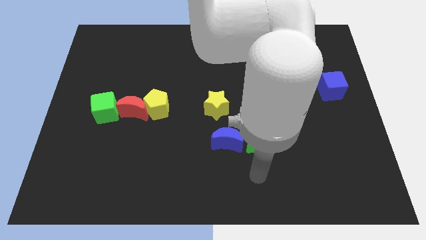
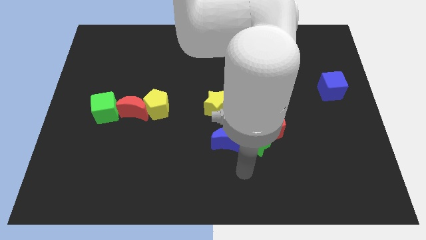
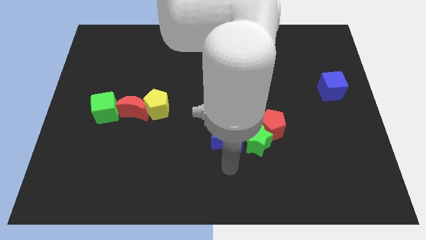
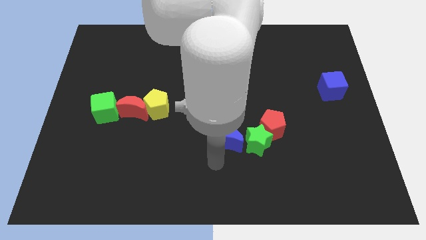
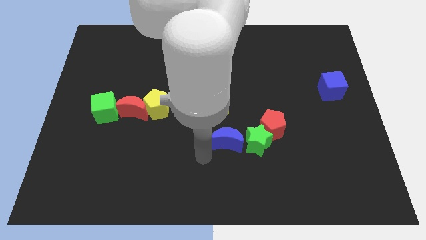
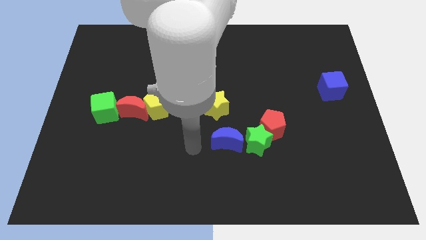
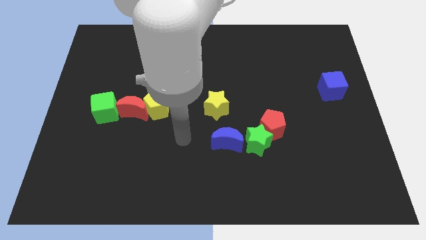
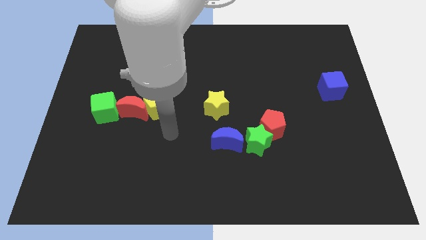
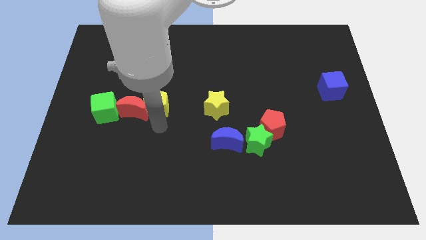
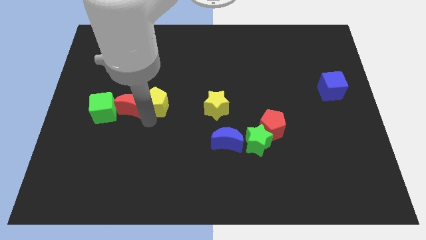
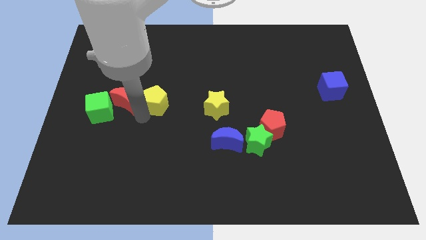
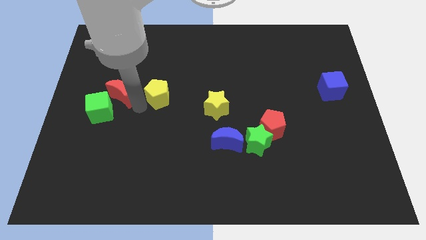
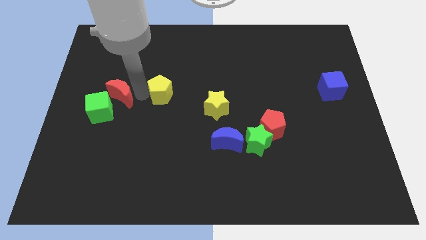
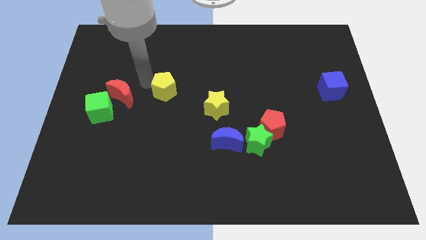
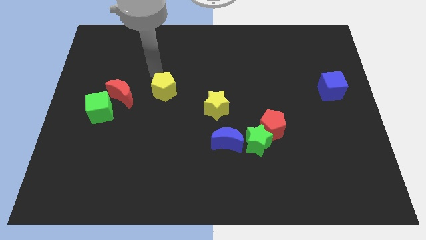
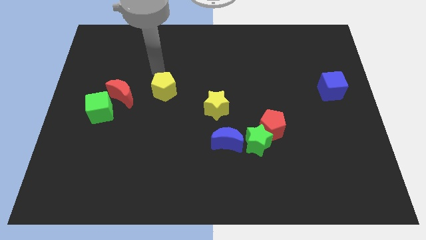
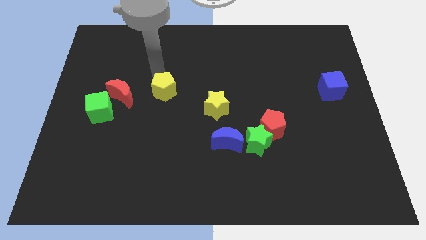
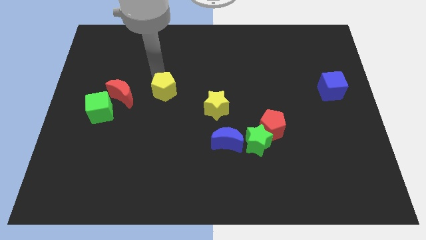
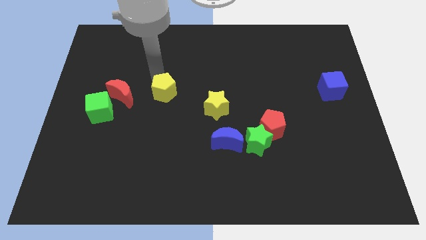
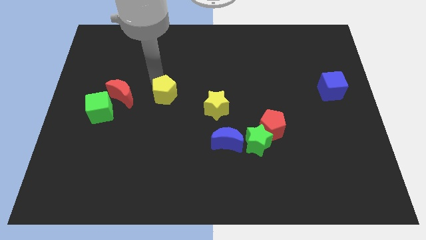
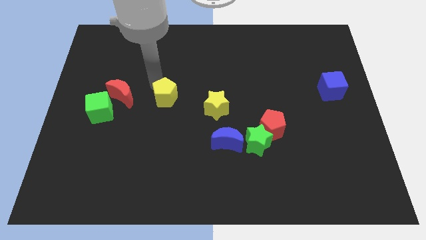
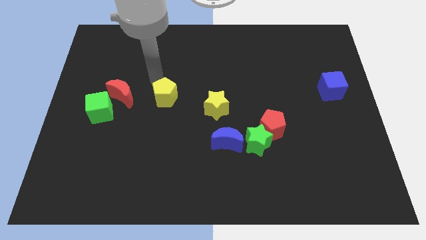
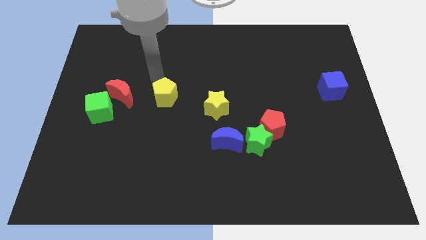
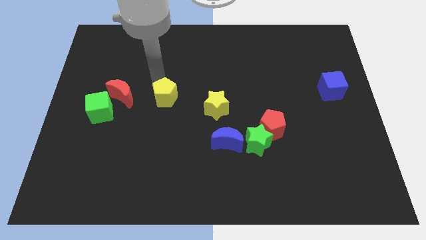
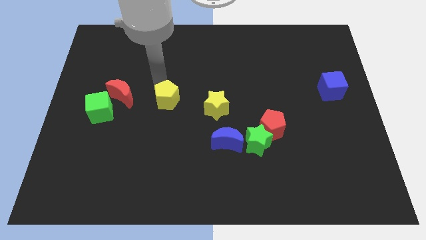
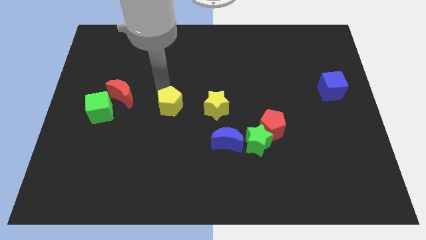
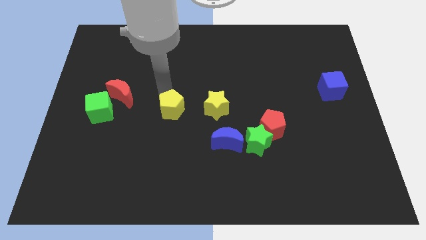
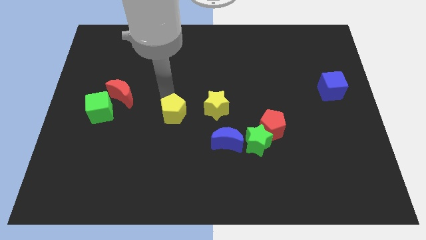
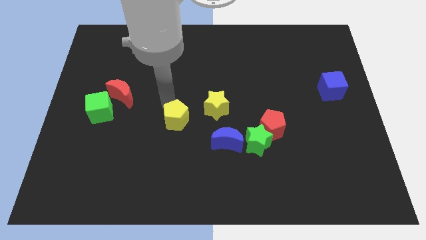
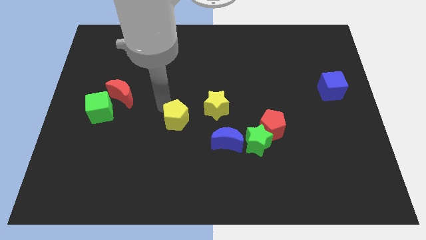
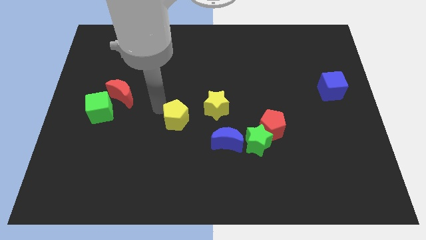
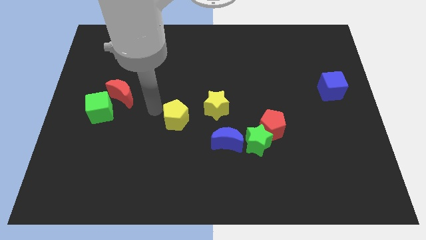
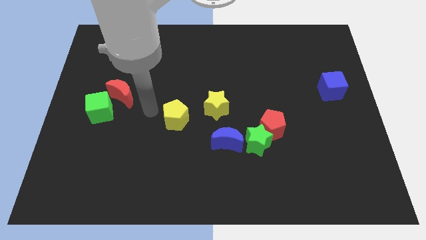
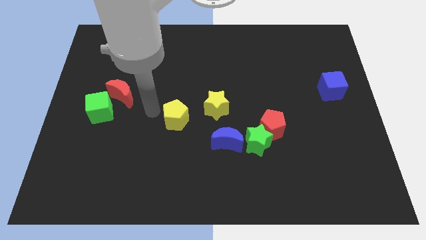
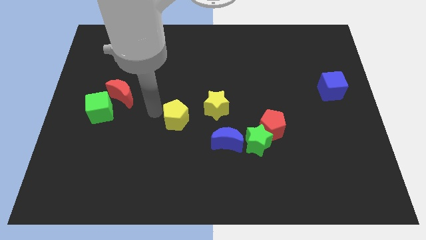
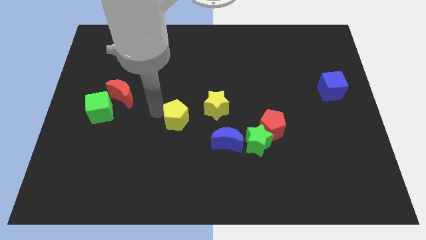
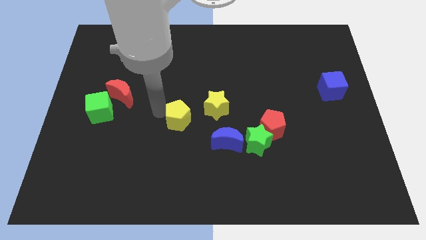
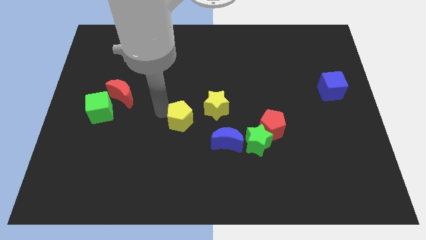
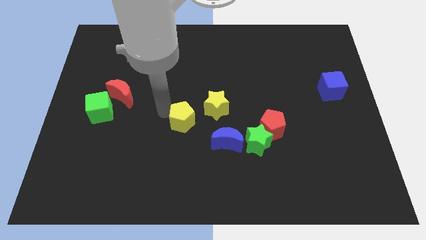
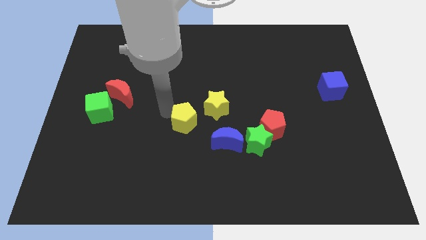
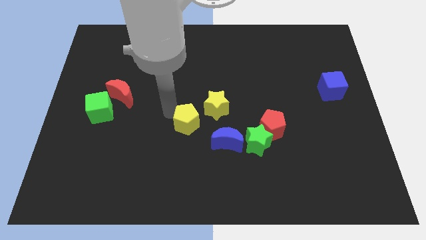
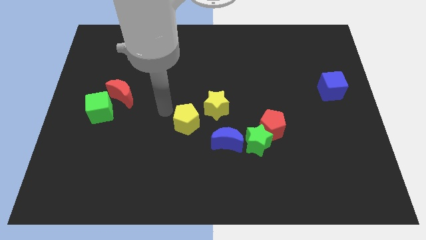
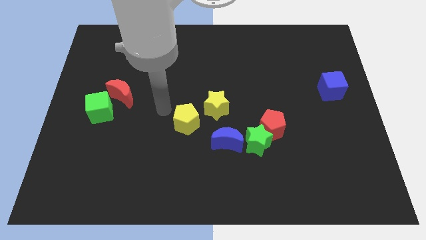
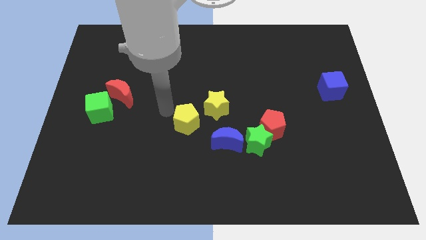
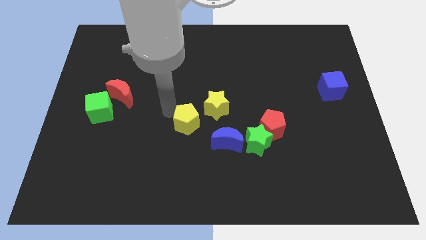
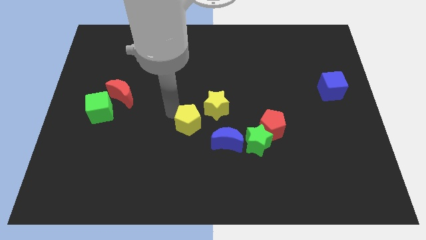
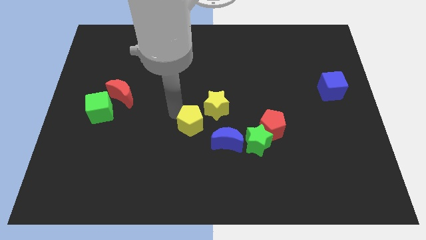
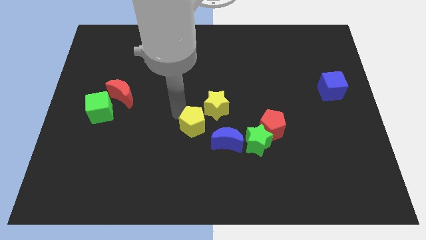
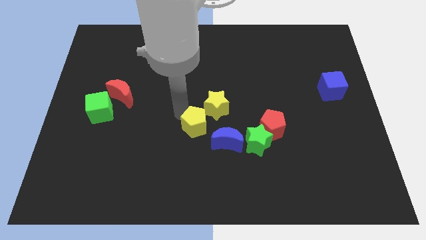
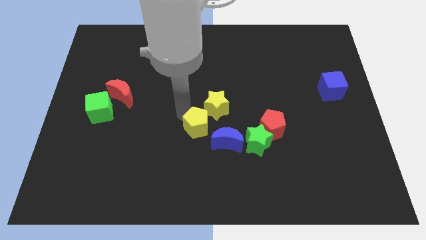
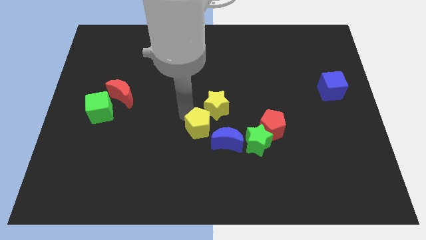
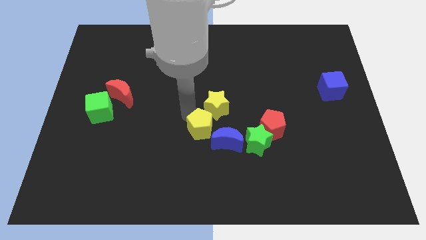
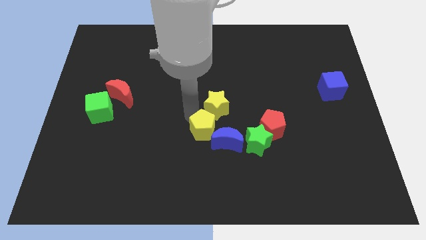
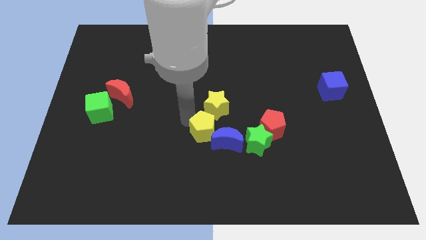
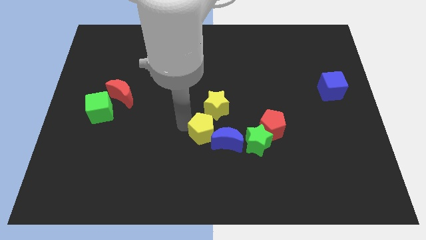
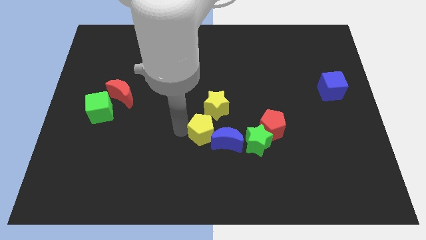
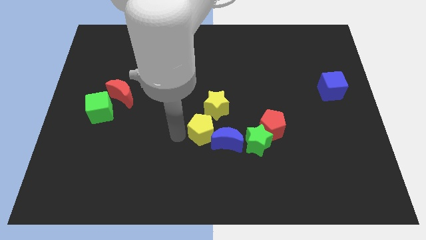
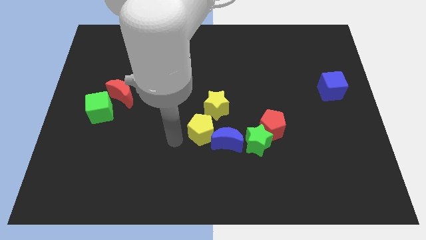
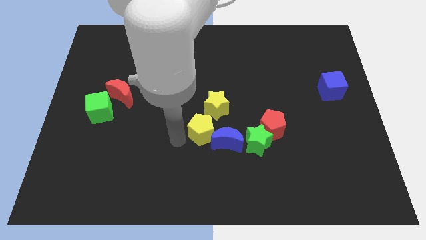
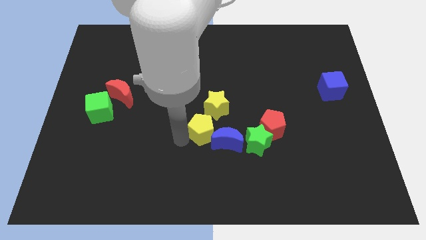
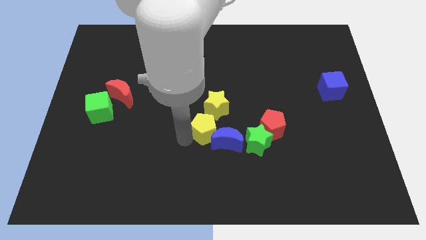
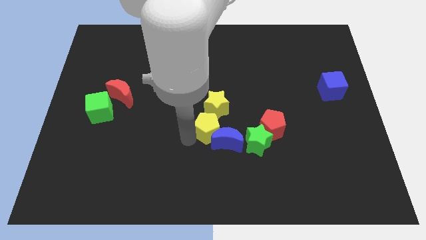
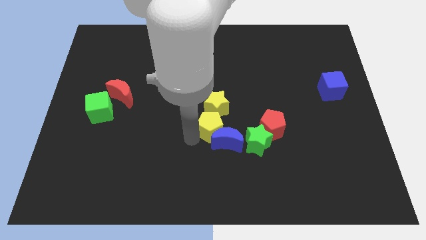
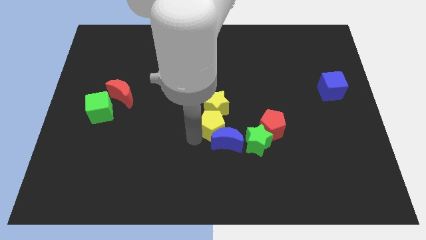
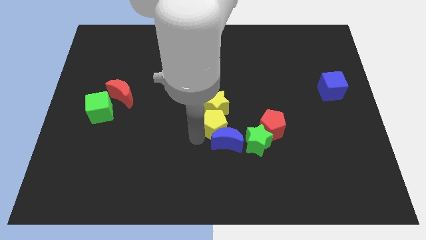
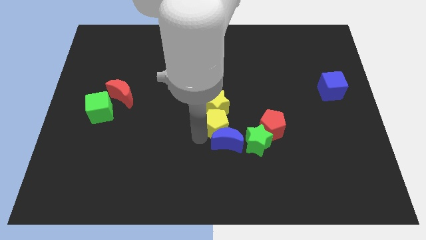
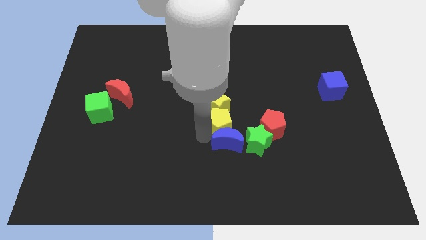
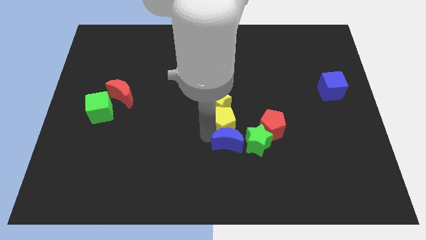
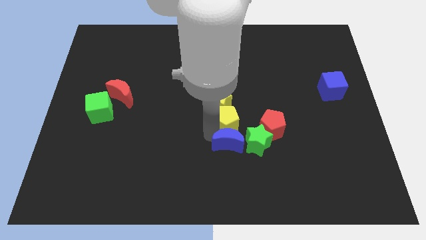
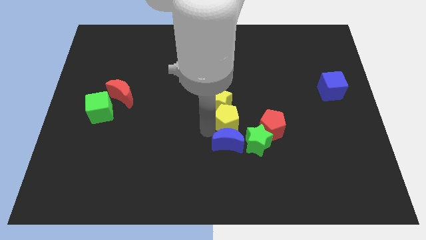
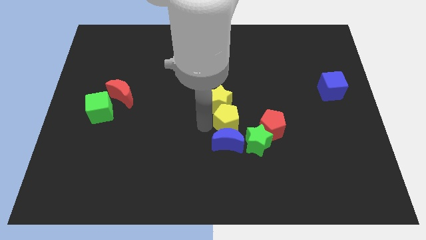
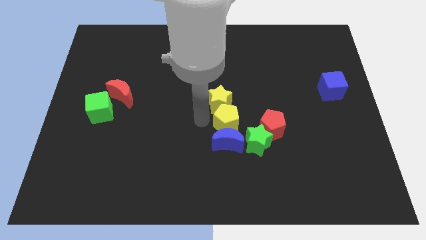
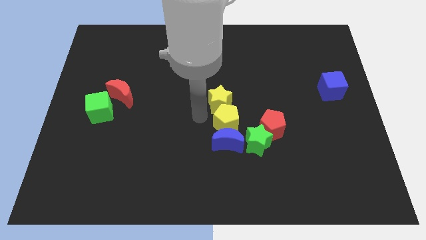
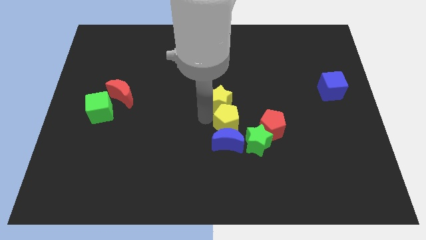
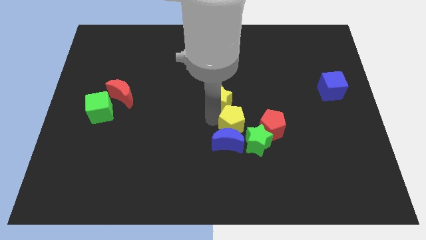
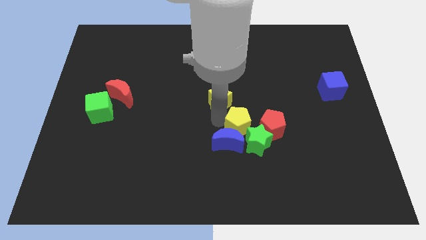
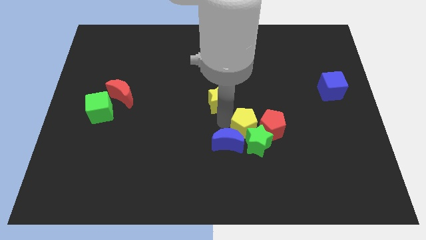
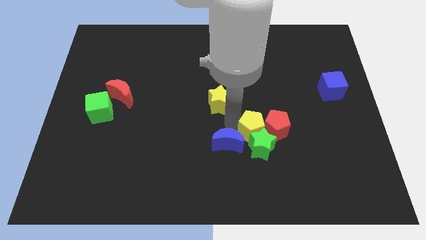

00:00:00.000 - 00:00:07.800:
slide the yellow pentagon towards the red pentagon
